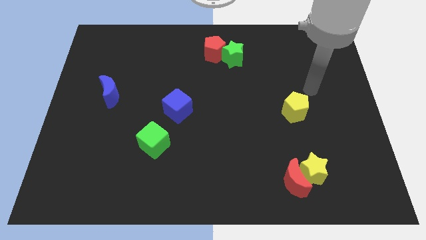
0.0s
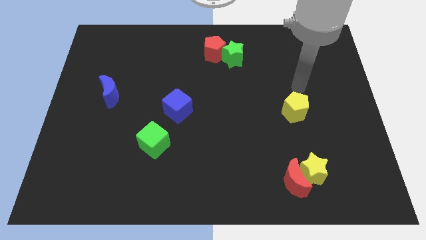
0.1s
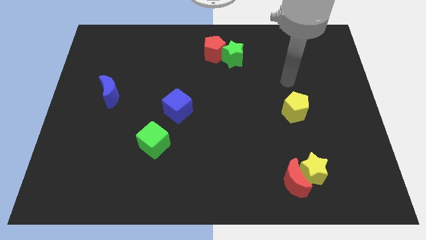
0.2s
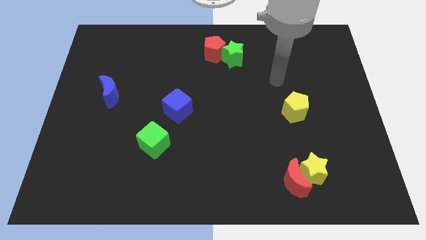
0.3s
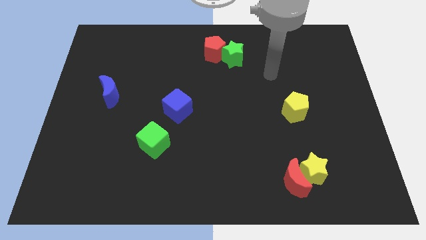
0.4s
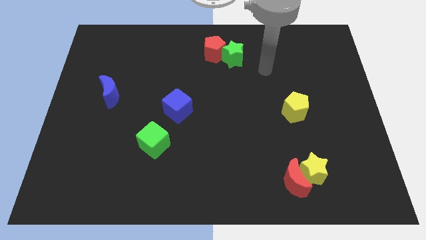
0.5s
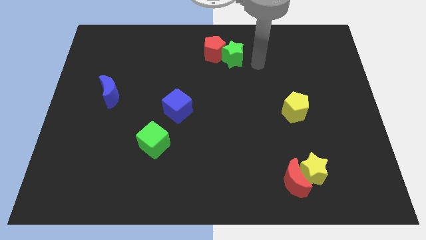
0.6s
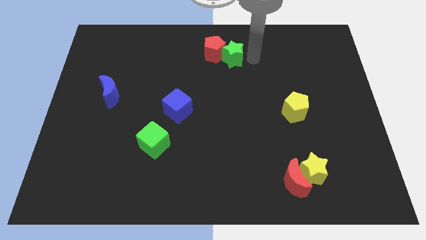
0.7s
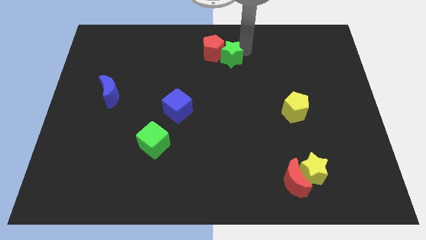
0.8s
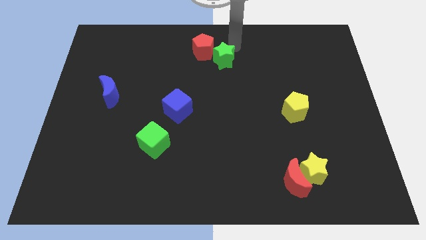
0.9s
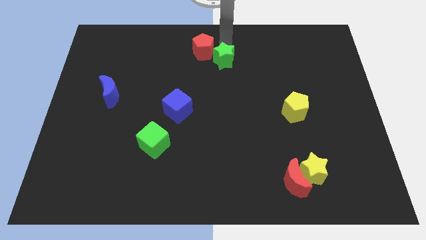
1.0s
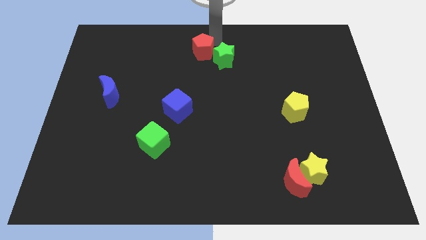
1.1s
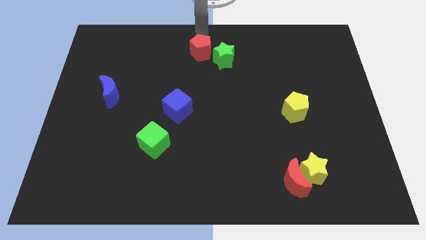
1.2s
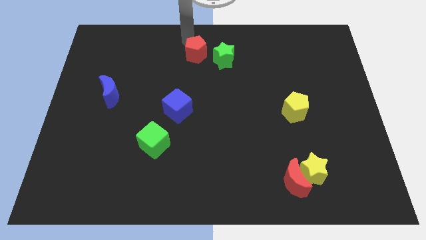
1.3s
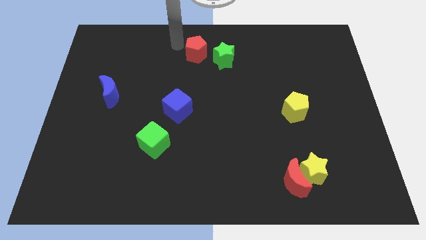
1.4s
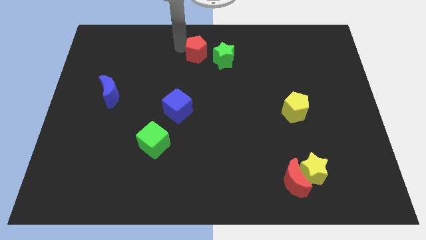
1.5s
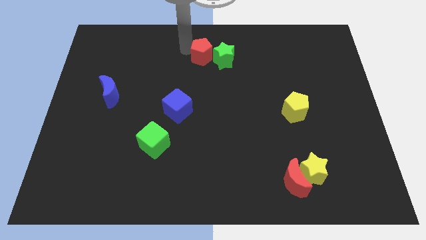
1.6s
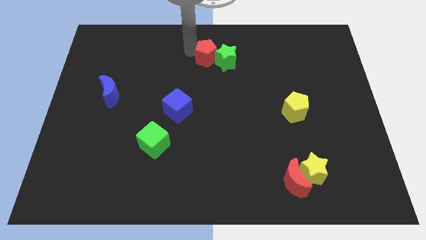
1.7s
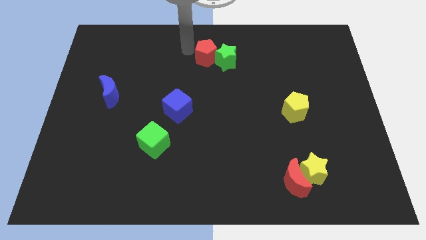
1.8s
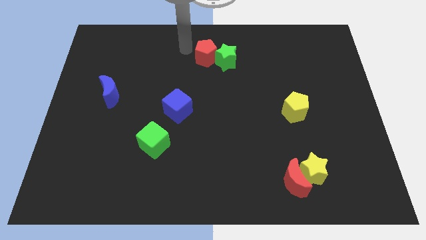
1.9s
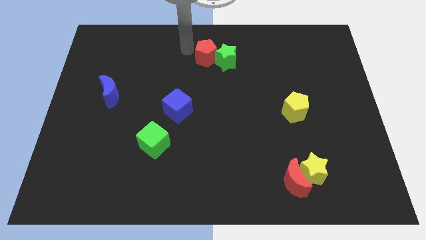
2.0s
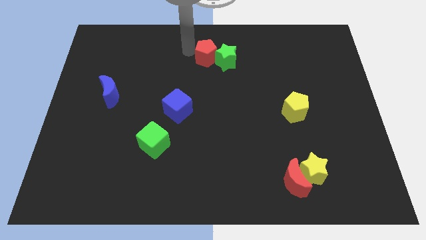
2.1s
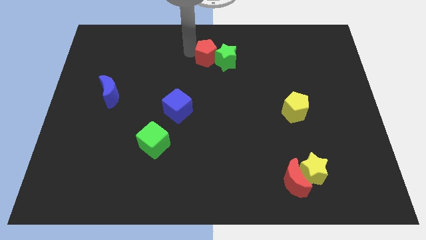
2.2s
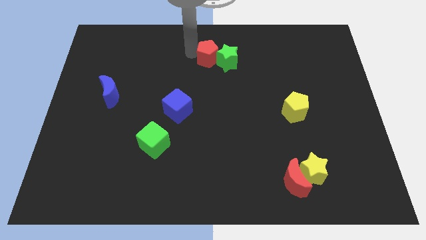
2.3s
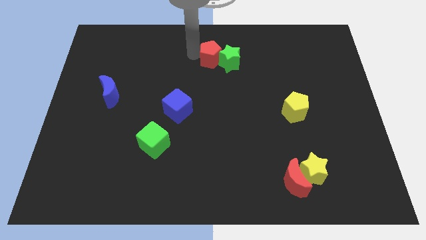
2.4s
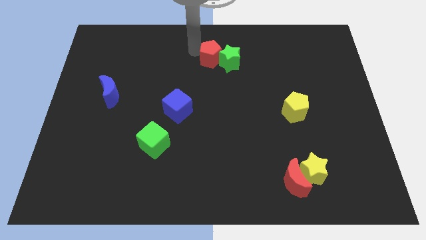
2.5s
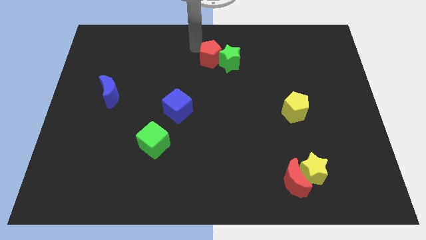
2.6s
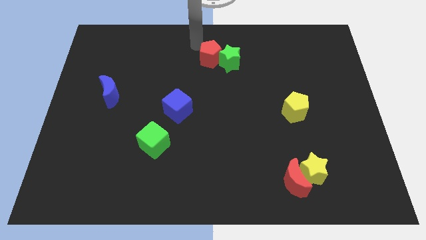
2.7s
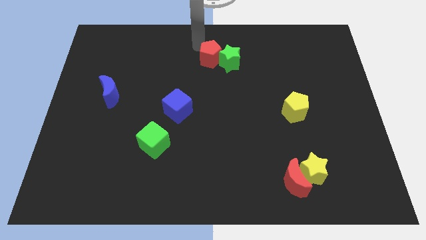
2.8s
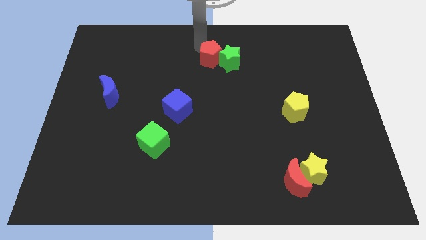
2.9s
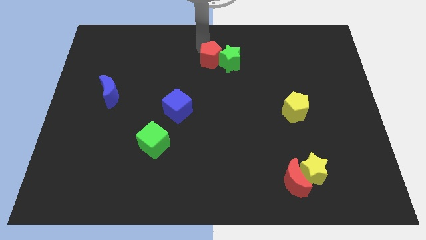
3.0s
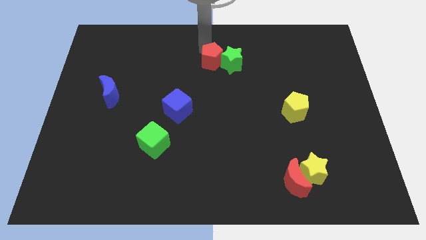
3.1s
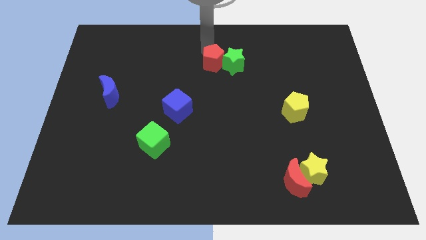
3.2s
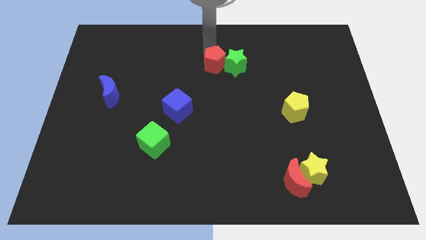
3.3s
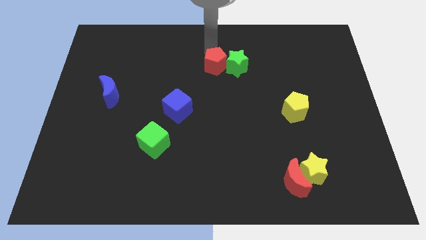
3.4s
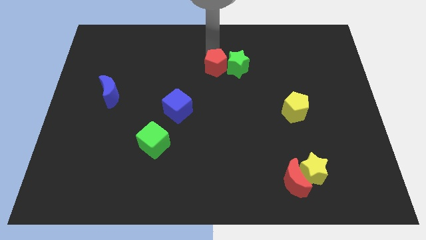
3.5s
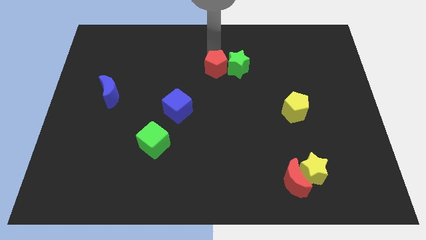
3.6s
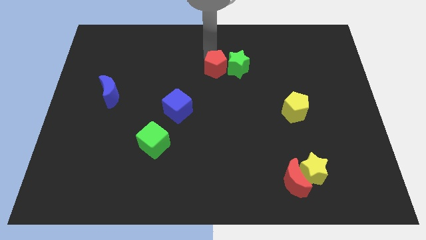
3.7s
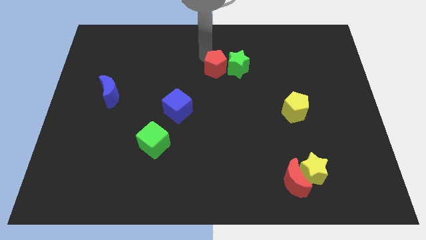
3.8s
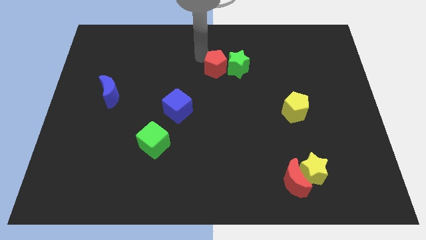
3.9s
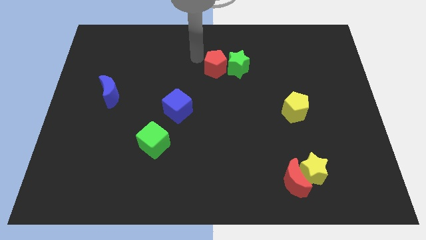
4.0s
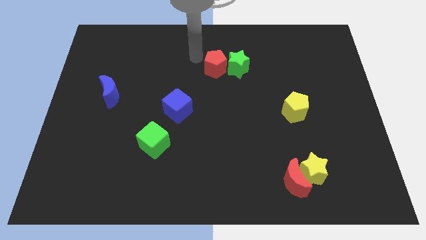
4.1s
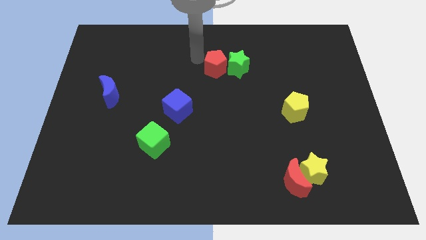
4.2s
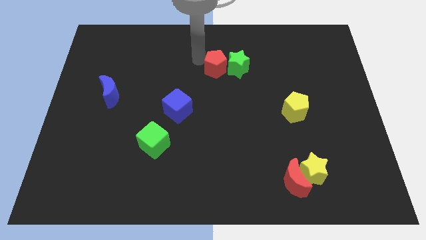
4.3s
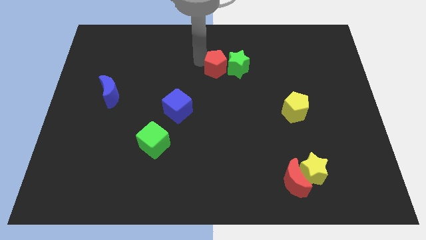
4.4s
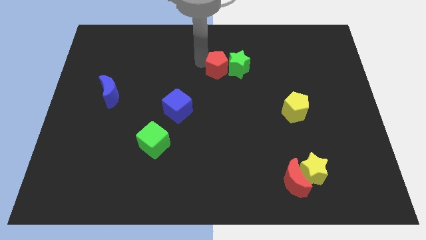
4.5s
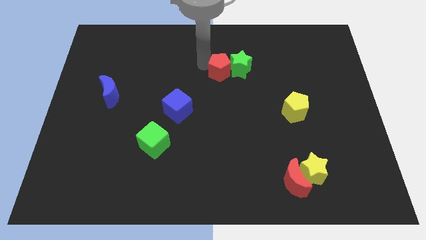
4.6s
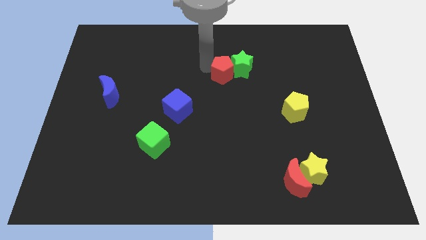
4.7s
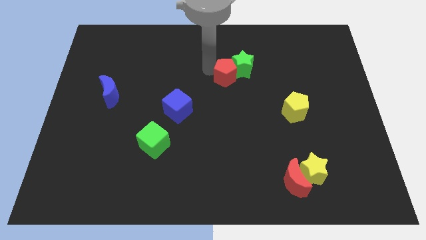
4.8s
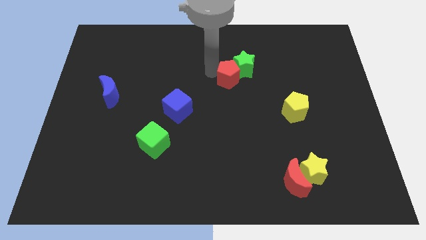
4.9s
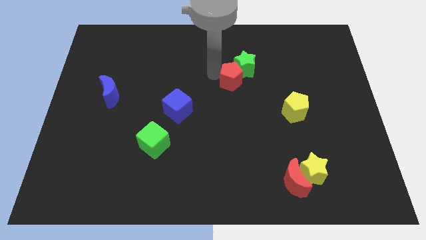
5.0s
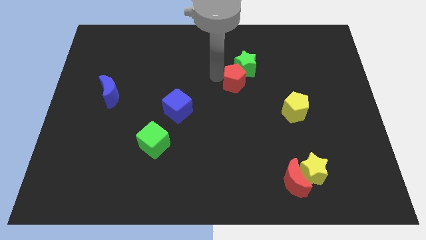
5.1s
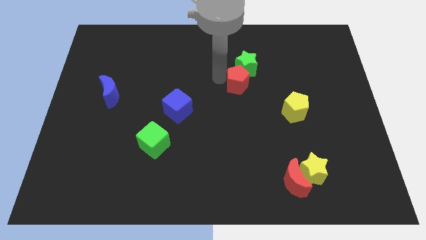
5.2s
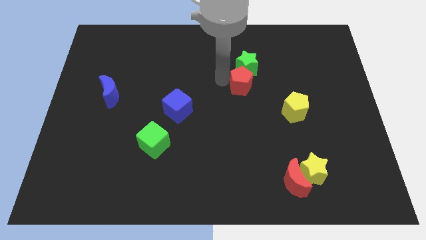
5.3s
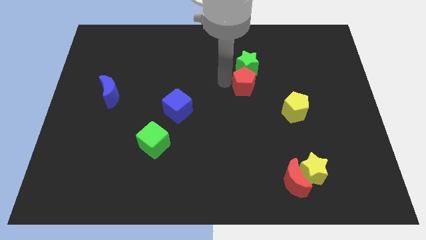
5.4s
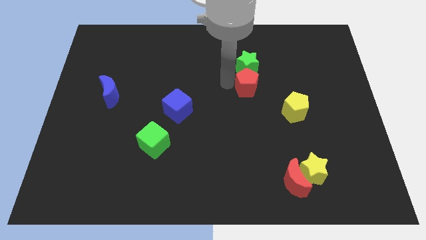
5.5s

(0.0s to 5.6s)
put the red pentagon to the bottom right of the green star
